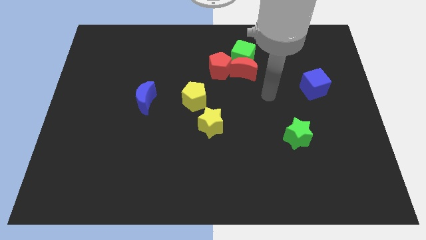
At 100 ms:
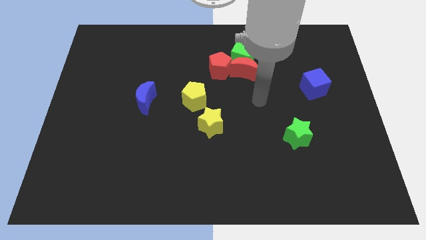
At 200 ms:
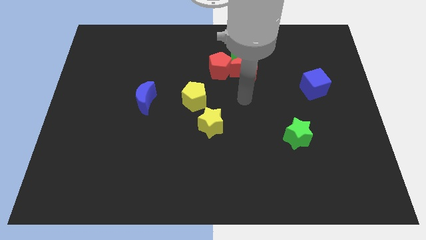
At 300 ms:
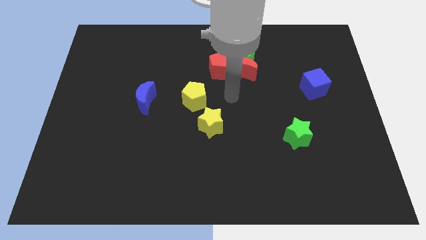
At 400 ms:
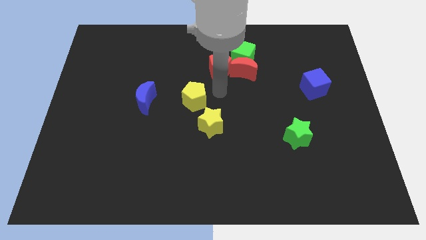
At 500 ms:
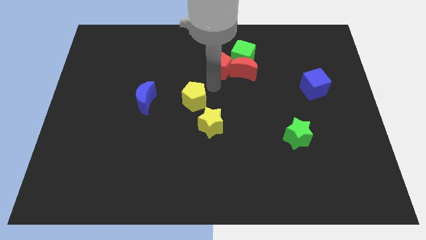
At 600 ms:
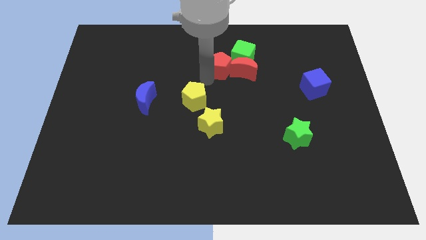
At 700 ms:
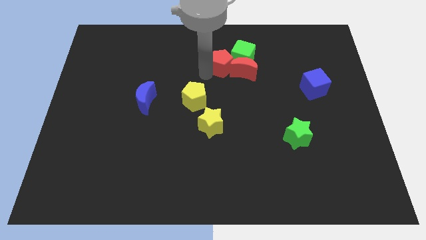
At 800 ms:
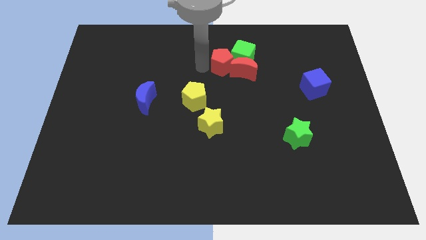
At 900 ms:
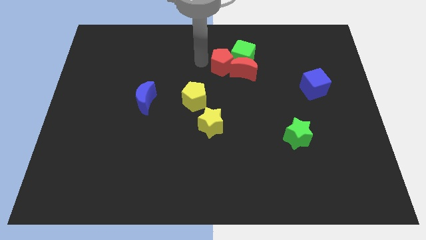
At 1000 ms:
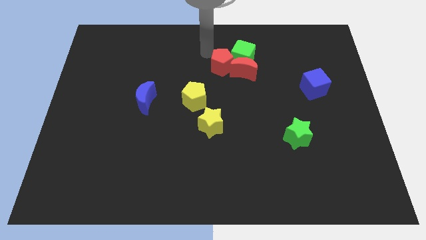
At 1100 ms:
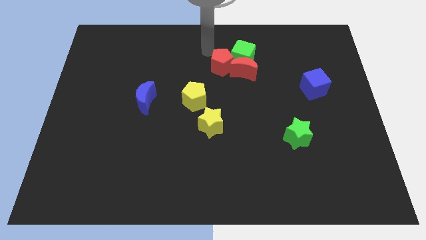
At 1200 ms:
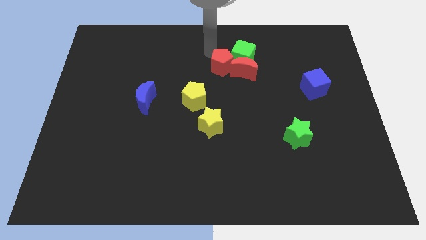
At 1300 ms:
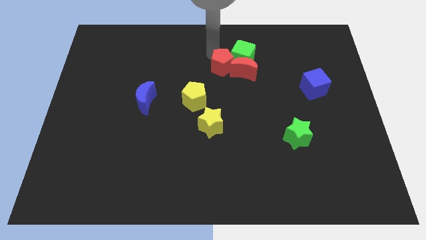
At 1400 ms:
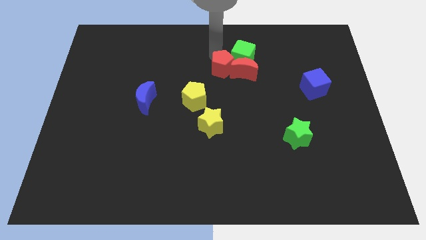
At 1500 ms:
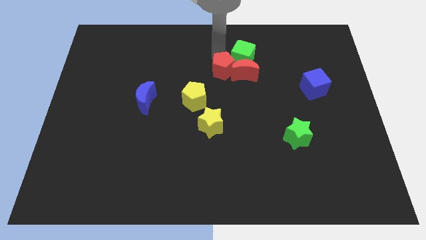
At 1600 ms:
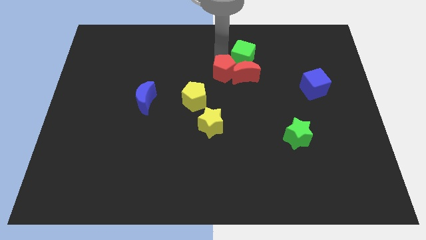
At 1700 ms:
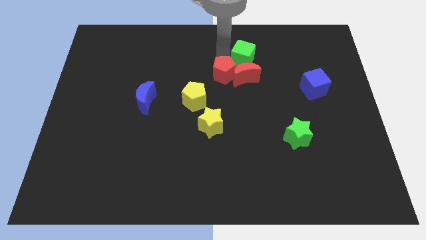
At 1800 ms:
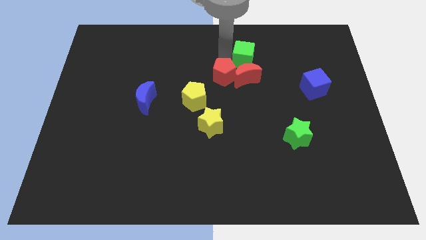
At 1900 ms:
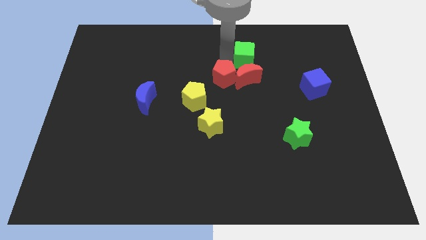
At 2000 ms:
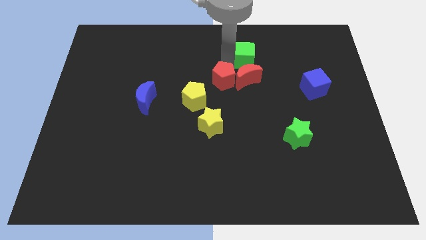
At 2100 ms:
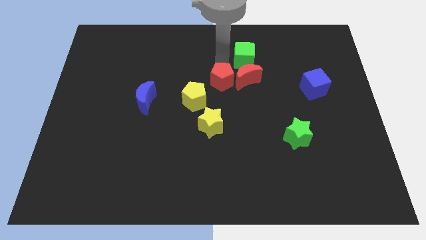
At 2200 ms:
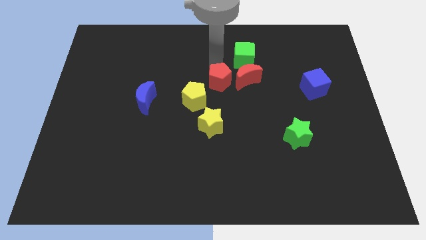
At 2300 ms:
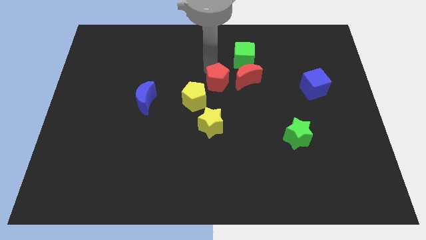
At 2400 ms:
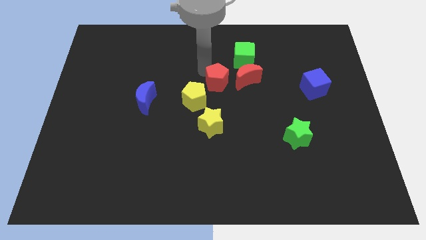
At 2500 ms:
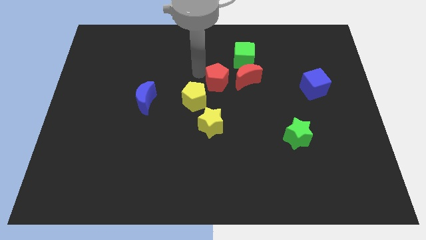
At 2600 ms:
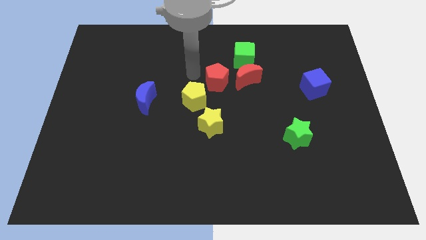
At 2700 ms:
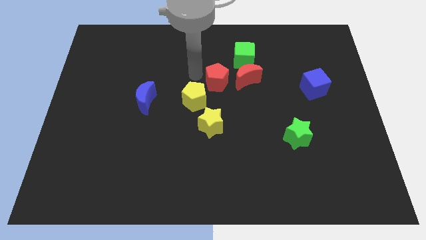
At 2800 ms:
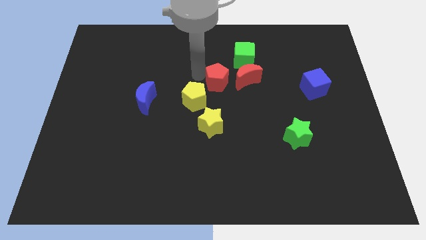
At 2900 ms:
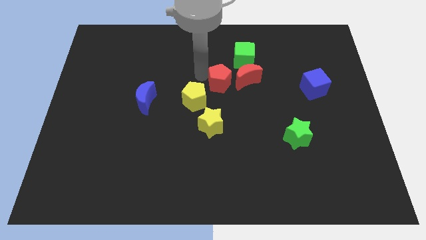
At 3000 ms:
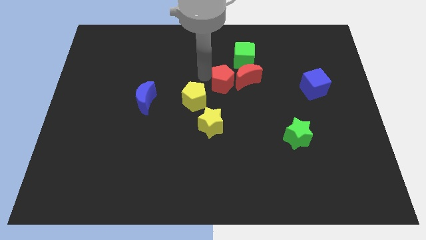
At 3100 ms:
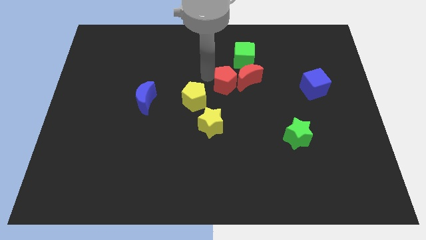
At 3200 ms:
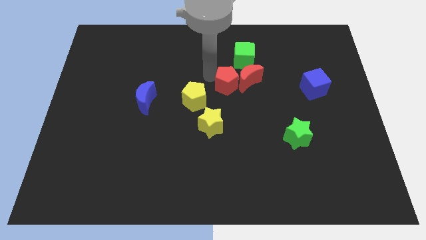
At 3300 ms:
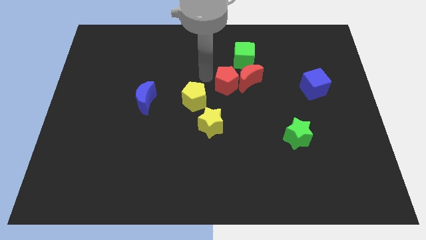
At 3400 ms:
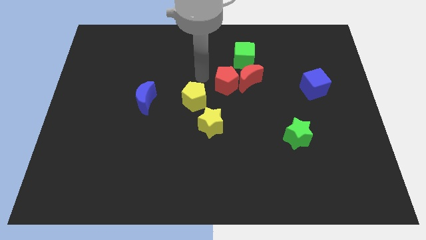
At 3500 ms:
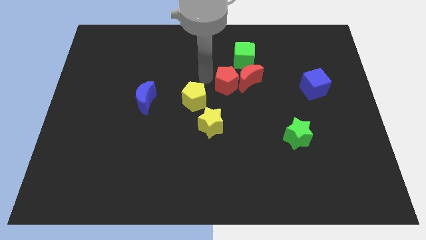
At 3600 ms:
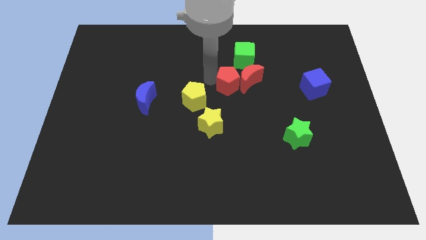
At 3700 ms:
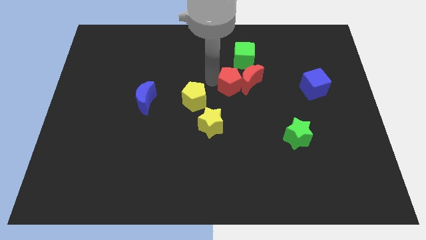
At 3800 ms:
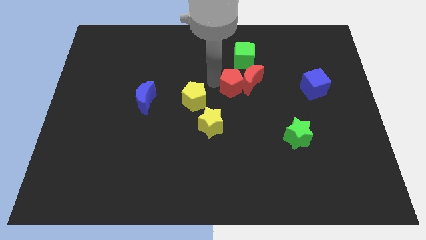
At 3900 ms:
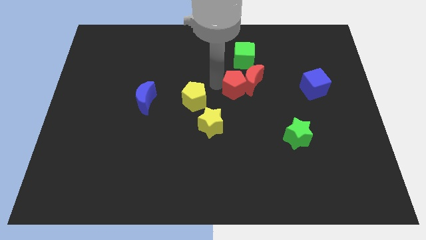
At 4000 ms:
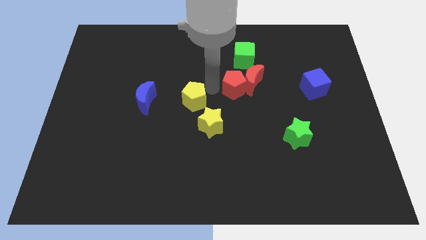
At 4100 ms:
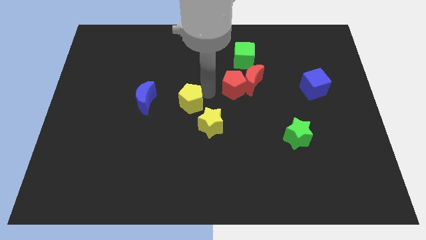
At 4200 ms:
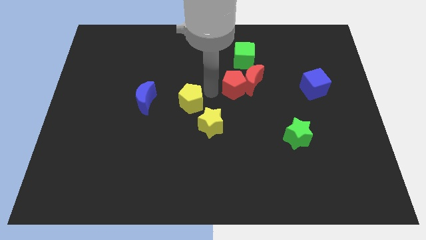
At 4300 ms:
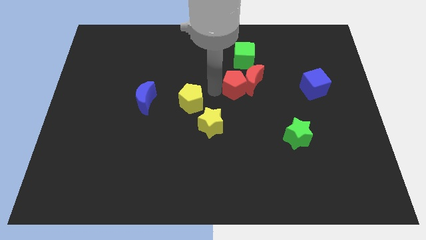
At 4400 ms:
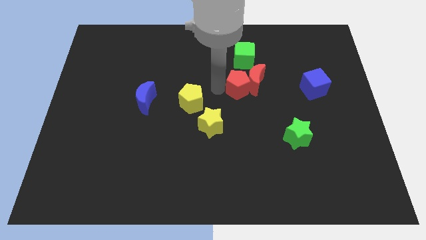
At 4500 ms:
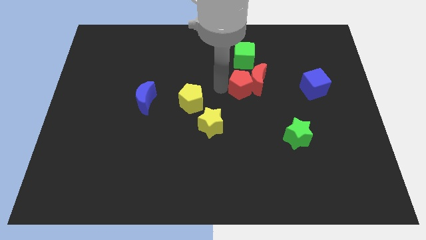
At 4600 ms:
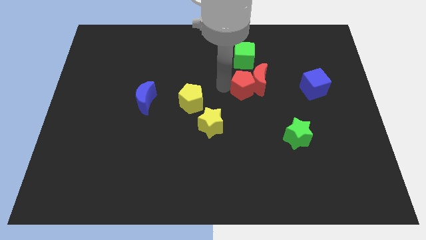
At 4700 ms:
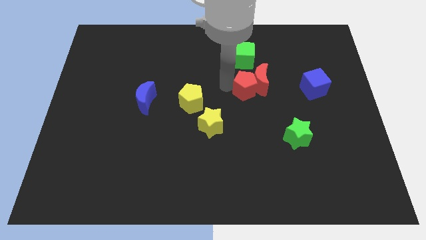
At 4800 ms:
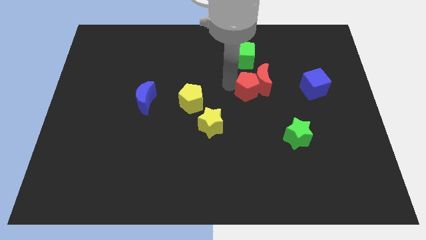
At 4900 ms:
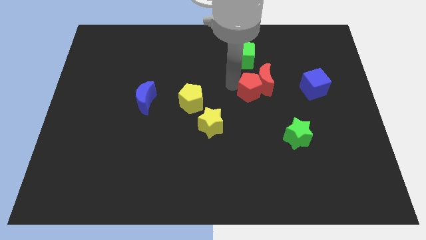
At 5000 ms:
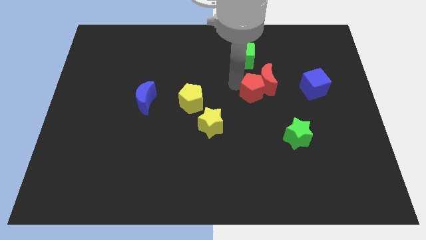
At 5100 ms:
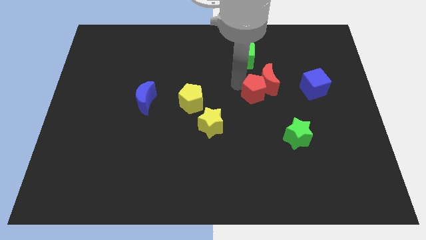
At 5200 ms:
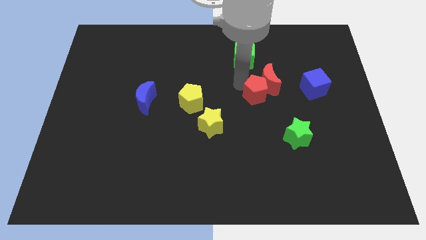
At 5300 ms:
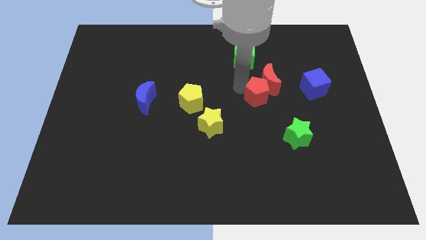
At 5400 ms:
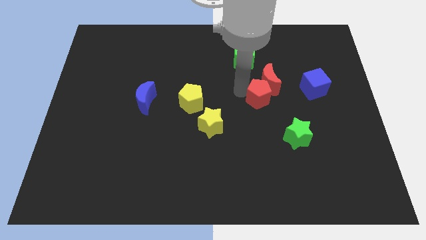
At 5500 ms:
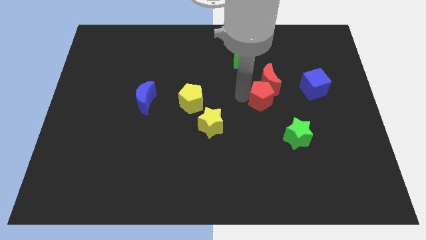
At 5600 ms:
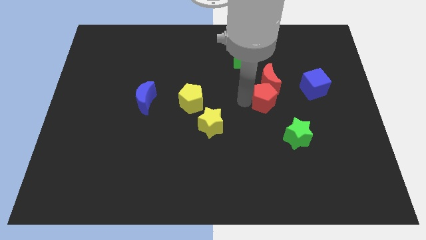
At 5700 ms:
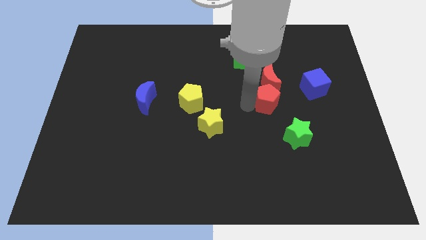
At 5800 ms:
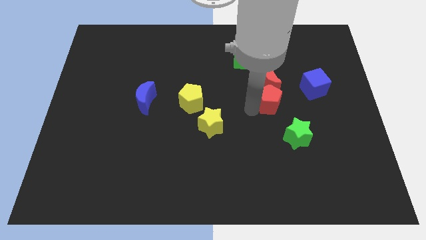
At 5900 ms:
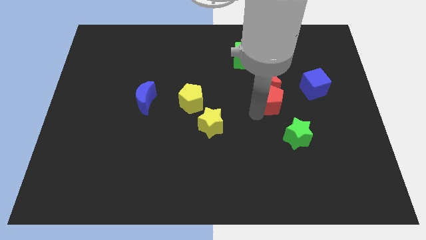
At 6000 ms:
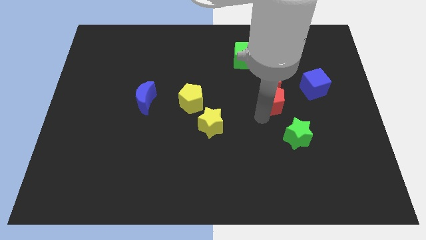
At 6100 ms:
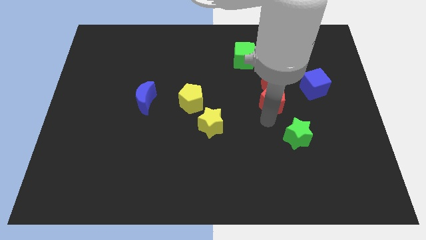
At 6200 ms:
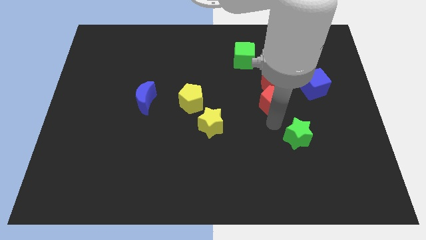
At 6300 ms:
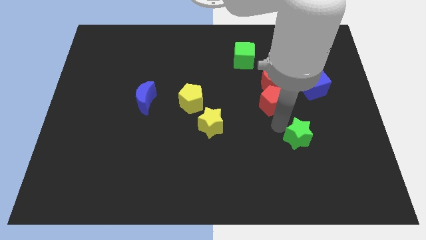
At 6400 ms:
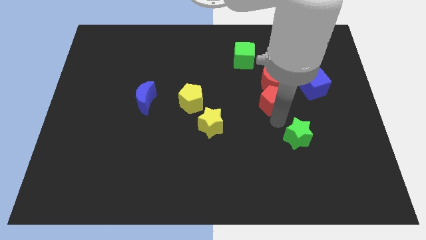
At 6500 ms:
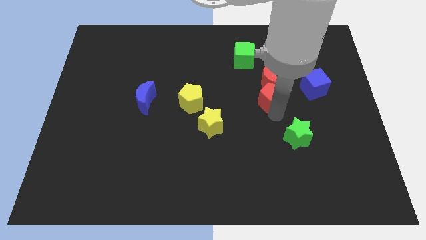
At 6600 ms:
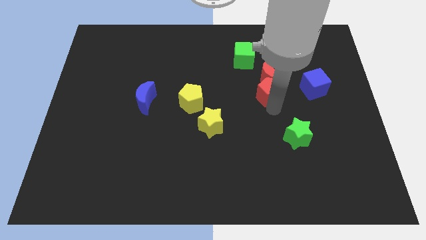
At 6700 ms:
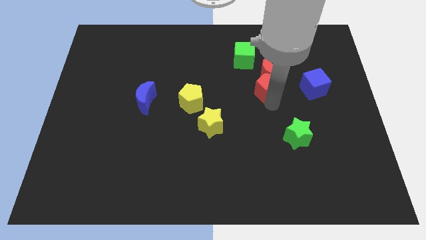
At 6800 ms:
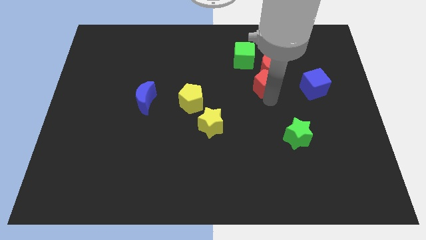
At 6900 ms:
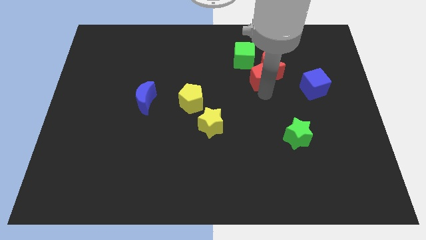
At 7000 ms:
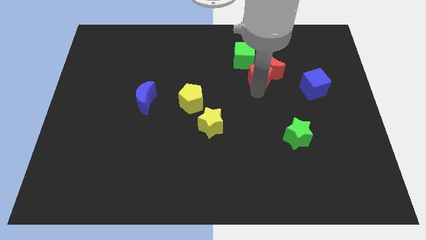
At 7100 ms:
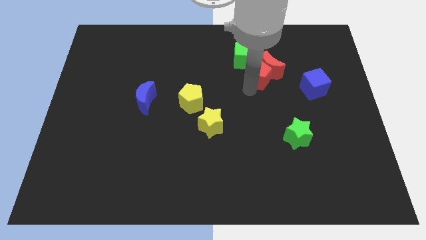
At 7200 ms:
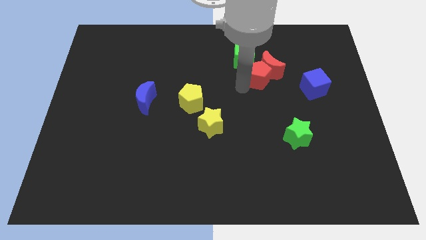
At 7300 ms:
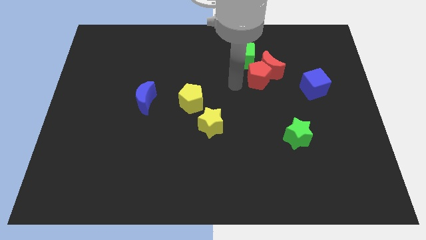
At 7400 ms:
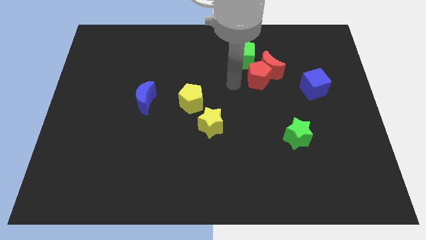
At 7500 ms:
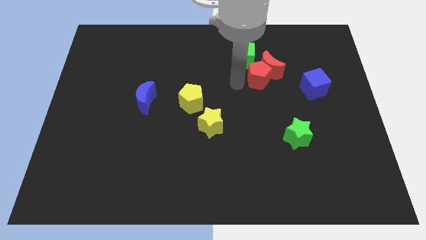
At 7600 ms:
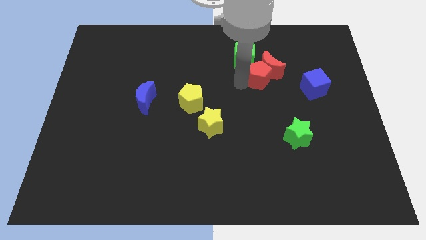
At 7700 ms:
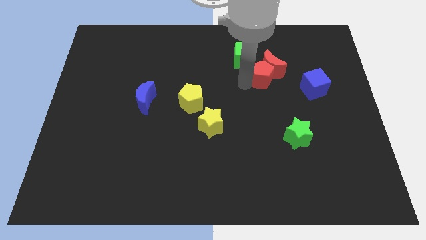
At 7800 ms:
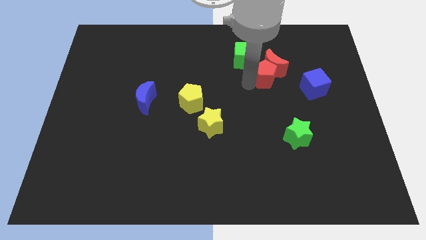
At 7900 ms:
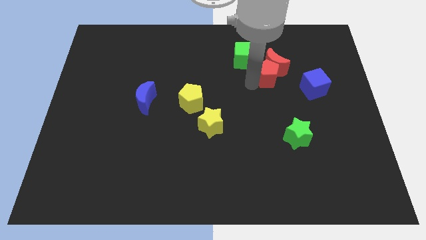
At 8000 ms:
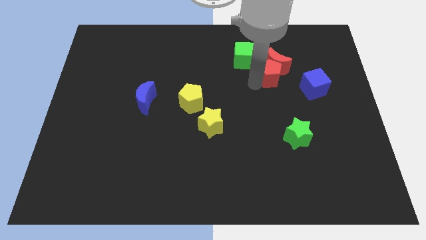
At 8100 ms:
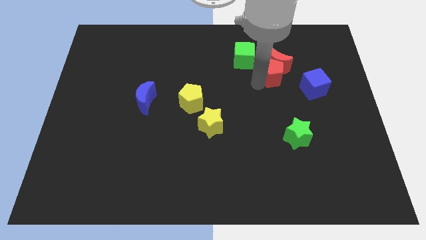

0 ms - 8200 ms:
put the red pentagon to the top left of the blue cube

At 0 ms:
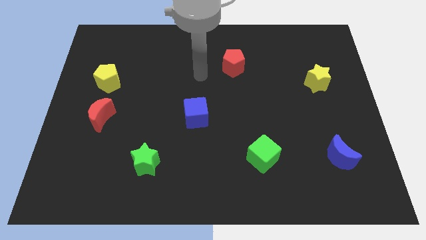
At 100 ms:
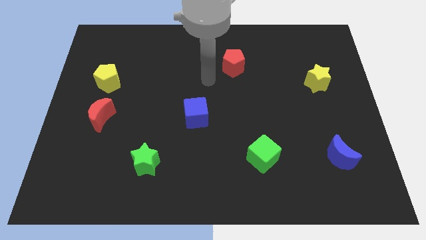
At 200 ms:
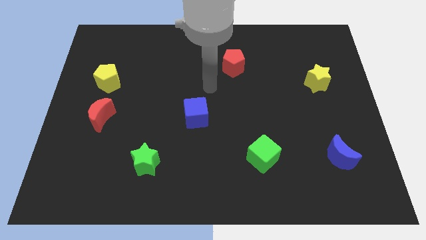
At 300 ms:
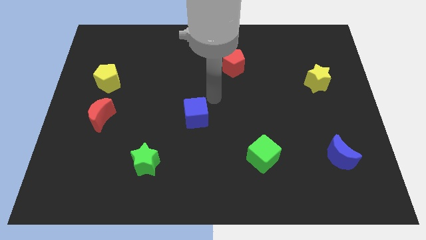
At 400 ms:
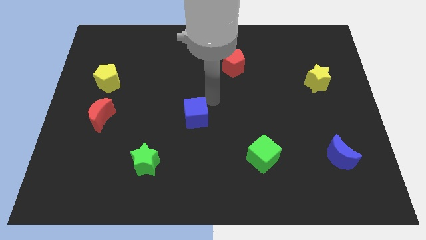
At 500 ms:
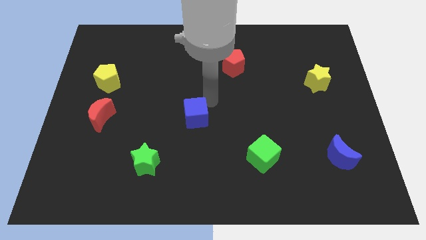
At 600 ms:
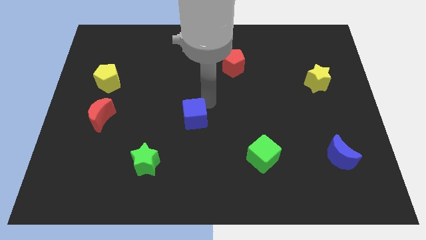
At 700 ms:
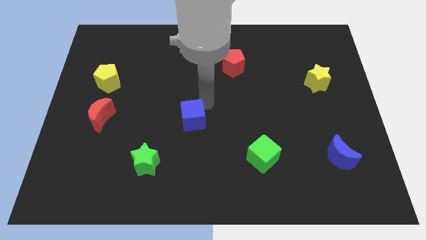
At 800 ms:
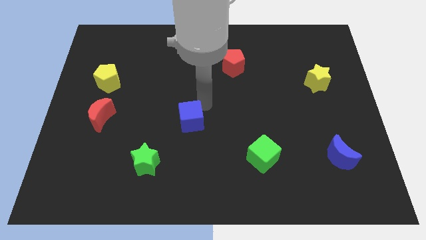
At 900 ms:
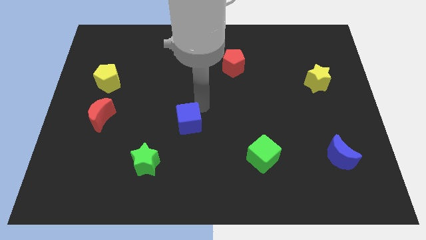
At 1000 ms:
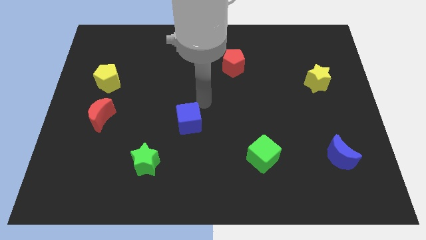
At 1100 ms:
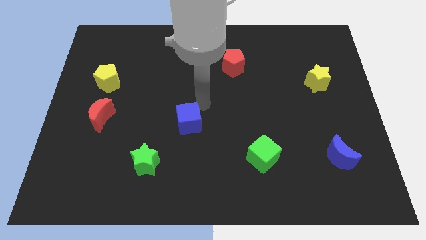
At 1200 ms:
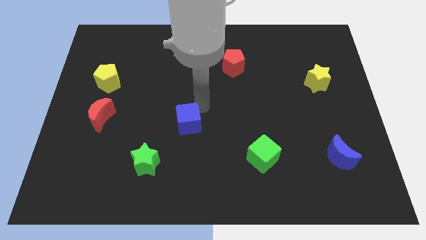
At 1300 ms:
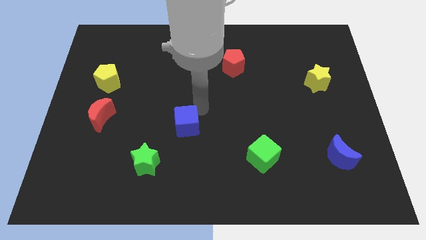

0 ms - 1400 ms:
put the blue cube diagonally up and to the right of the green star
